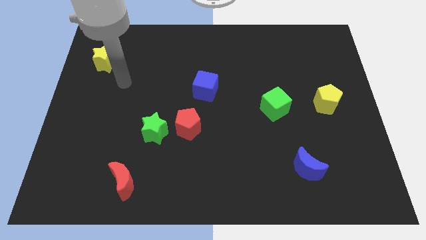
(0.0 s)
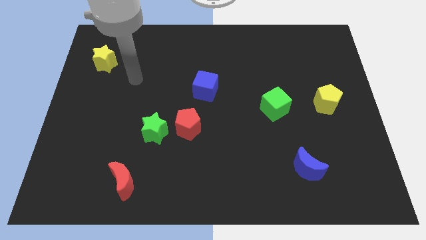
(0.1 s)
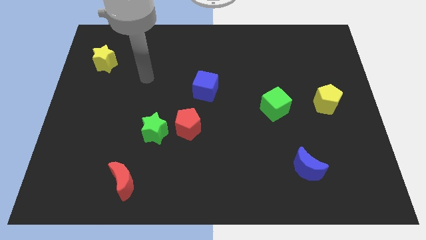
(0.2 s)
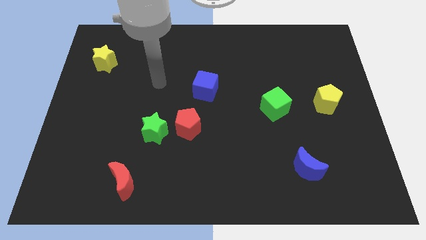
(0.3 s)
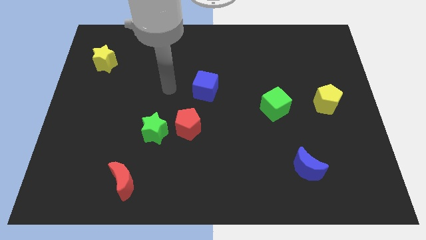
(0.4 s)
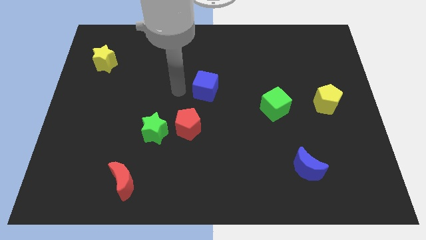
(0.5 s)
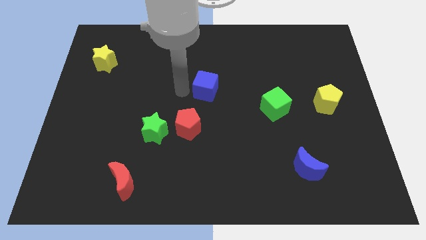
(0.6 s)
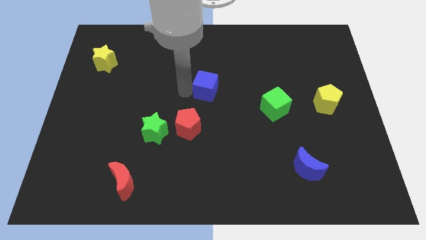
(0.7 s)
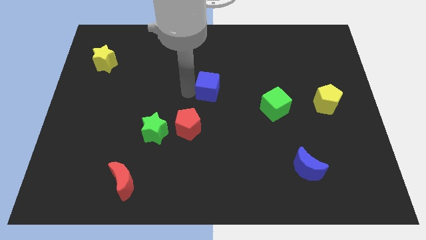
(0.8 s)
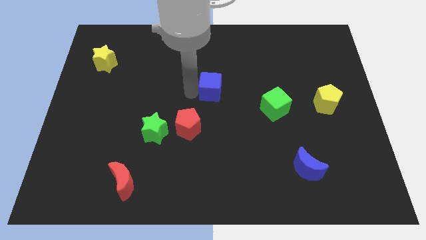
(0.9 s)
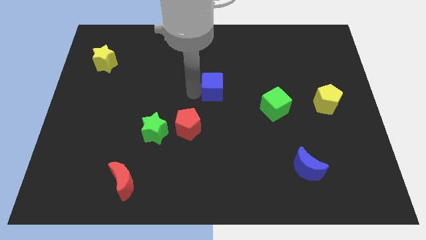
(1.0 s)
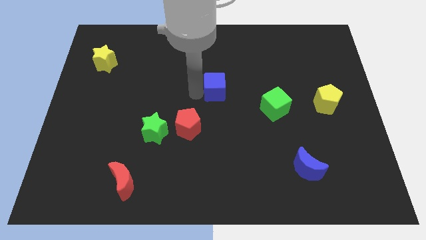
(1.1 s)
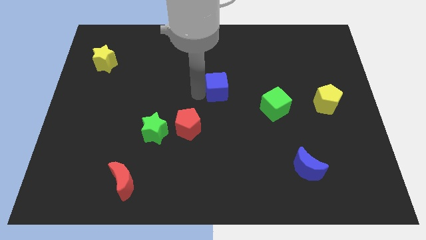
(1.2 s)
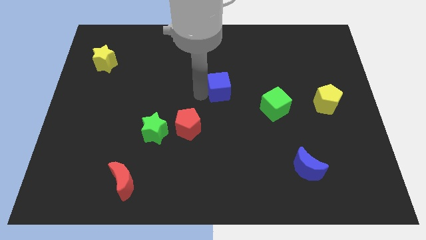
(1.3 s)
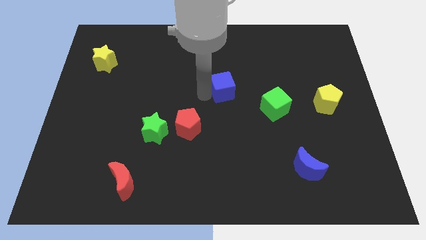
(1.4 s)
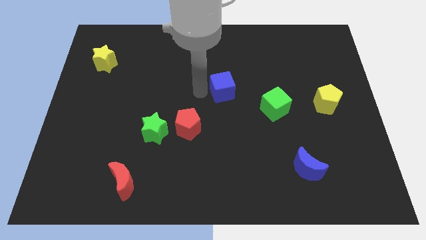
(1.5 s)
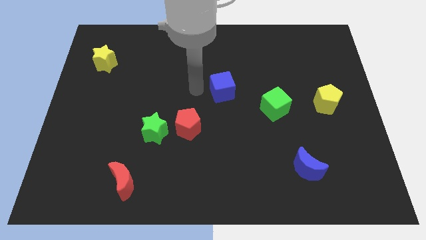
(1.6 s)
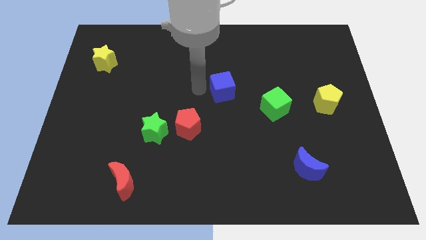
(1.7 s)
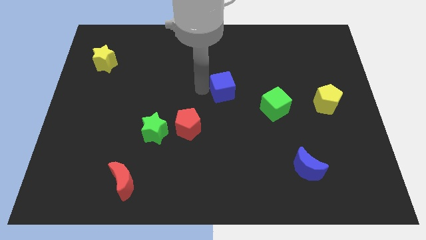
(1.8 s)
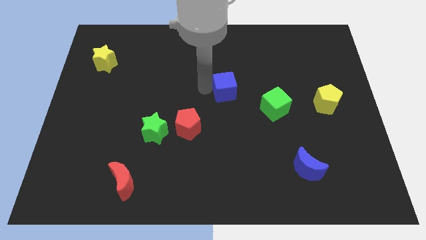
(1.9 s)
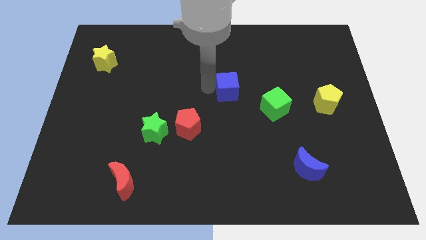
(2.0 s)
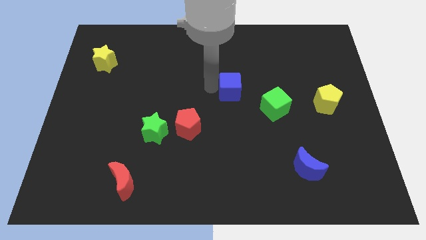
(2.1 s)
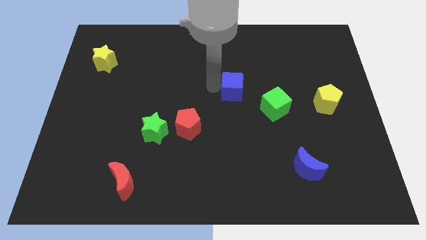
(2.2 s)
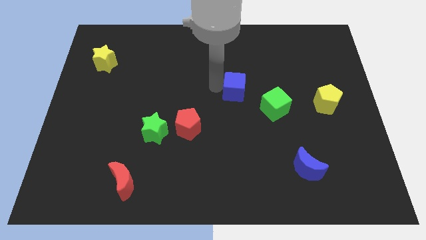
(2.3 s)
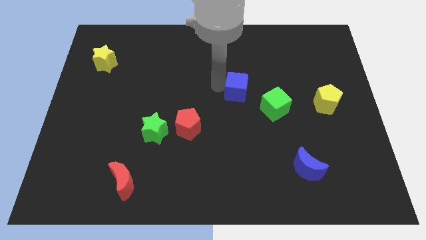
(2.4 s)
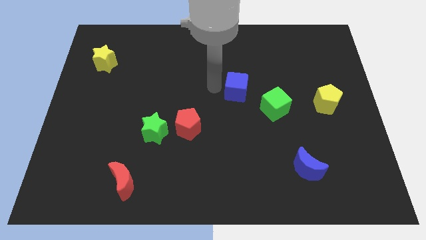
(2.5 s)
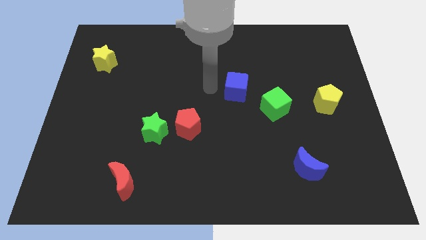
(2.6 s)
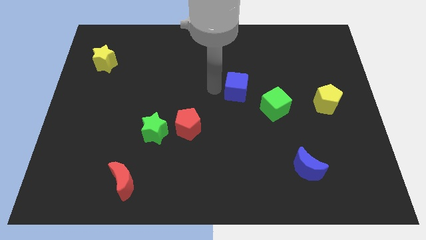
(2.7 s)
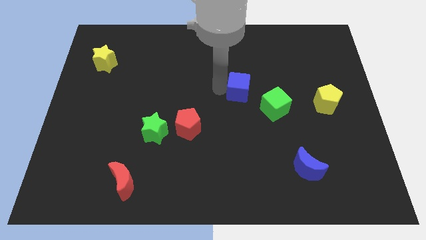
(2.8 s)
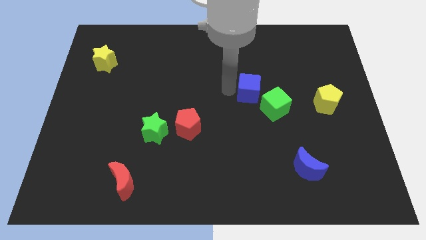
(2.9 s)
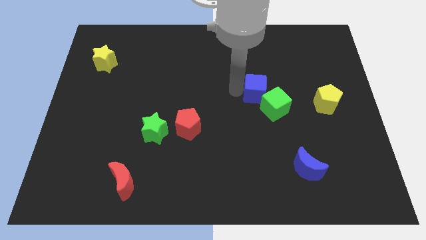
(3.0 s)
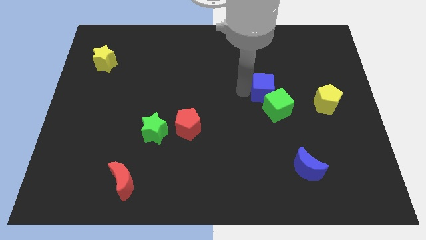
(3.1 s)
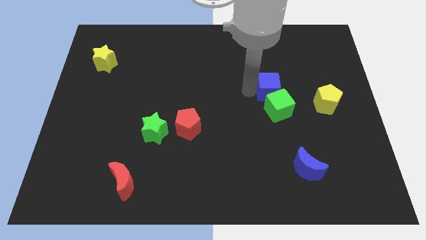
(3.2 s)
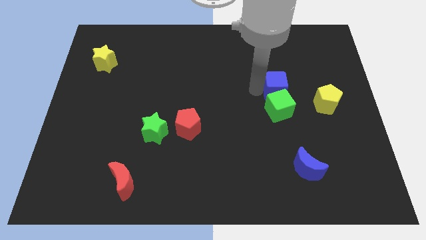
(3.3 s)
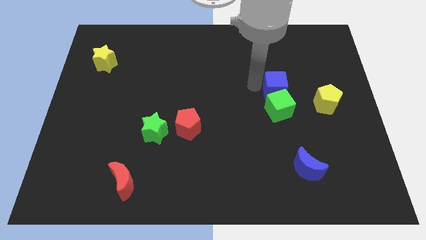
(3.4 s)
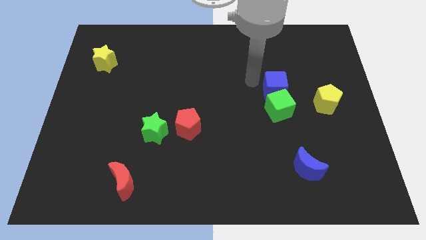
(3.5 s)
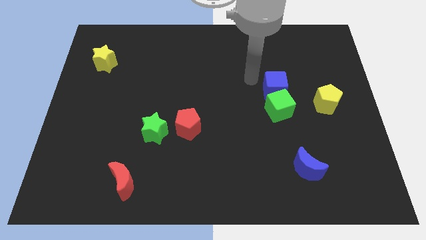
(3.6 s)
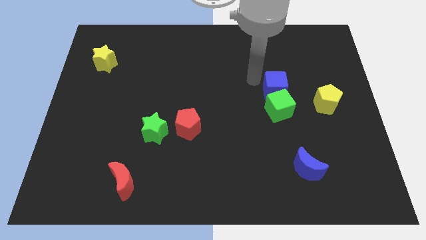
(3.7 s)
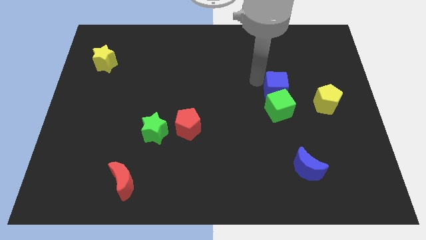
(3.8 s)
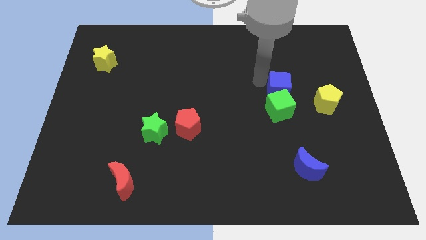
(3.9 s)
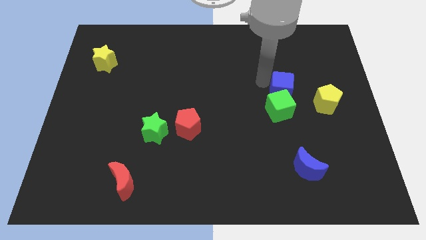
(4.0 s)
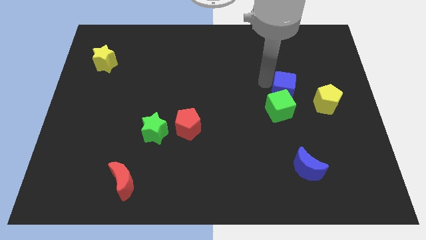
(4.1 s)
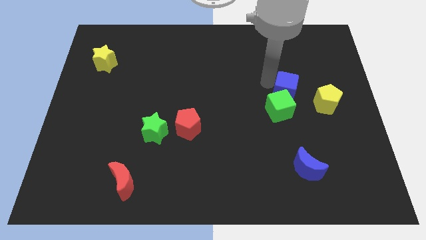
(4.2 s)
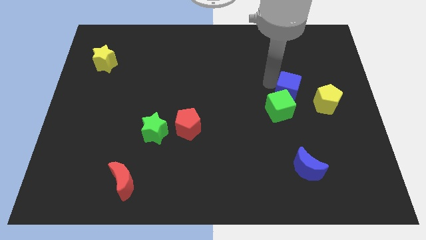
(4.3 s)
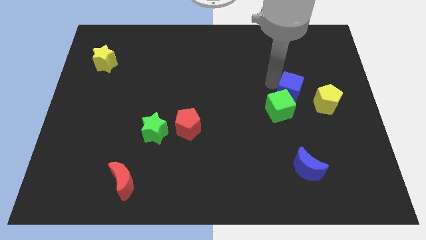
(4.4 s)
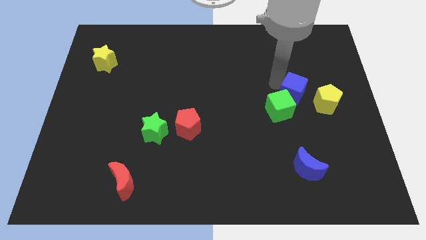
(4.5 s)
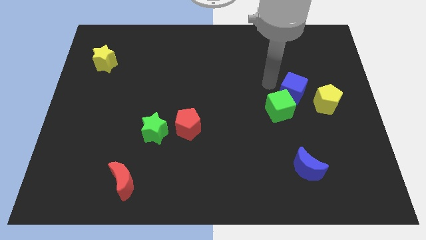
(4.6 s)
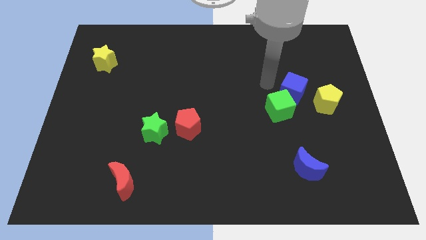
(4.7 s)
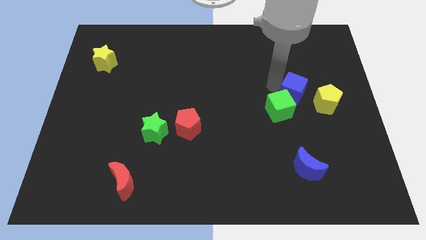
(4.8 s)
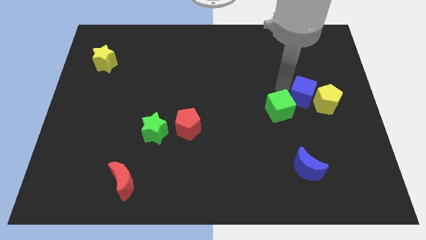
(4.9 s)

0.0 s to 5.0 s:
push the blue cube next to the yellow pentagon

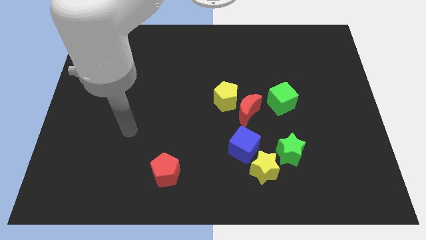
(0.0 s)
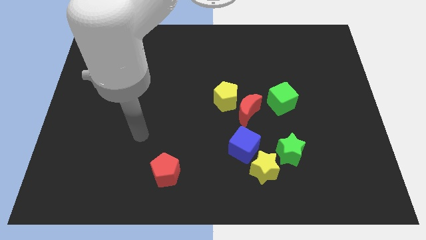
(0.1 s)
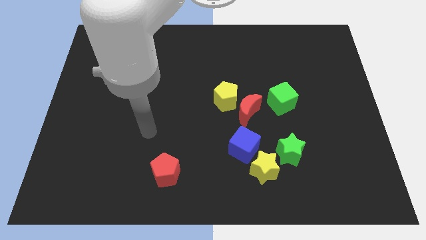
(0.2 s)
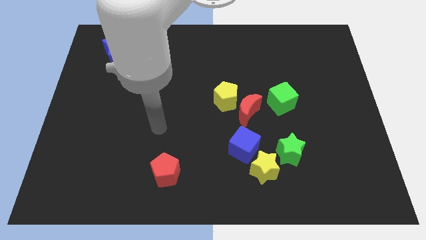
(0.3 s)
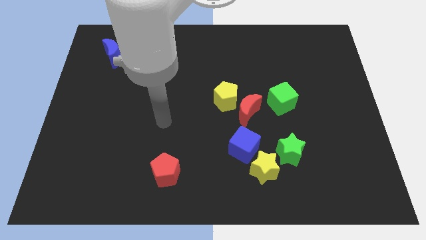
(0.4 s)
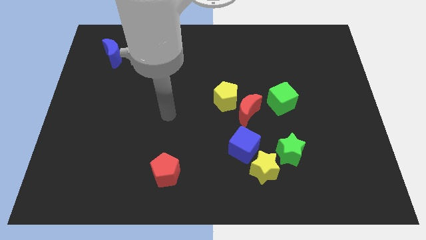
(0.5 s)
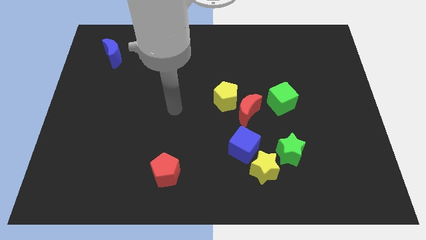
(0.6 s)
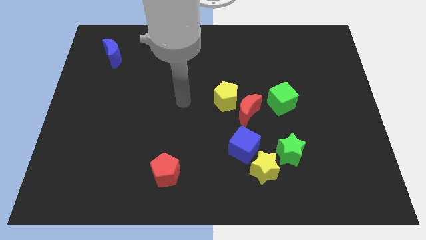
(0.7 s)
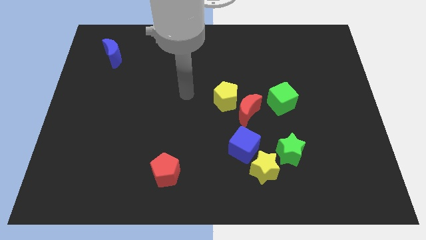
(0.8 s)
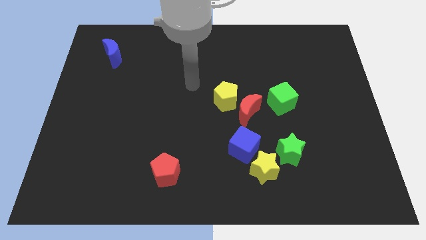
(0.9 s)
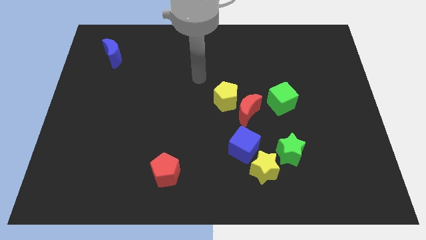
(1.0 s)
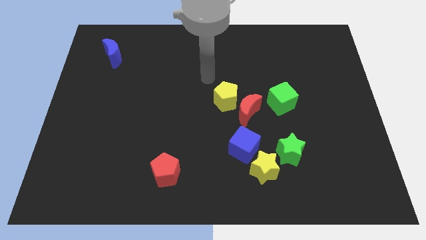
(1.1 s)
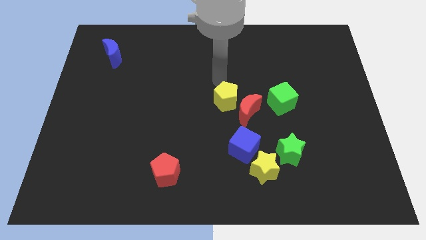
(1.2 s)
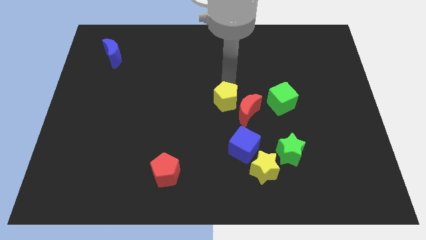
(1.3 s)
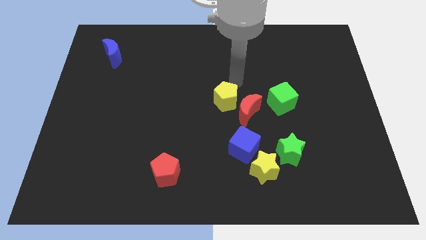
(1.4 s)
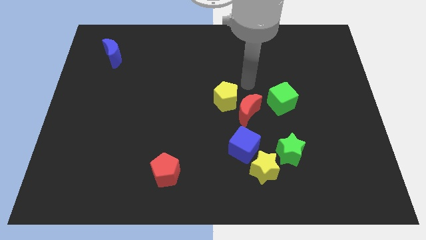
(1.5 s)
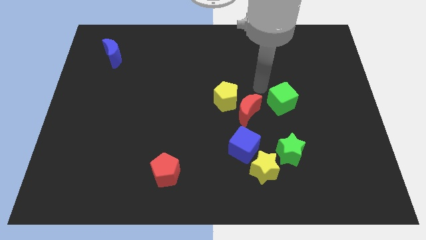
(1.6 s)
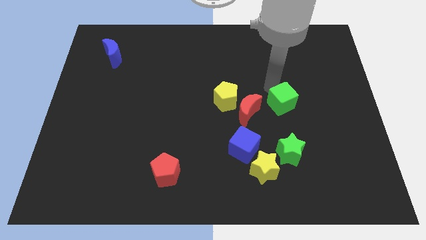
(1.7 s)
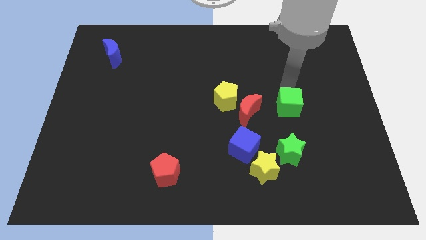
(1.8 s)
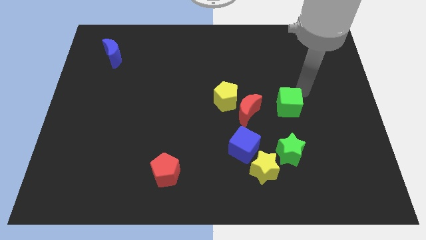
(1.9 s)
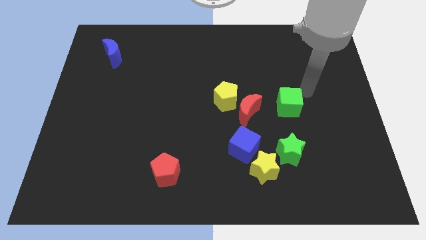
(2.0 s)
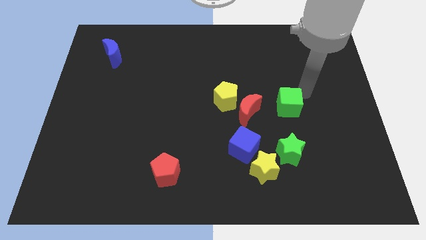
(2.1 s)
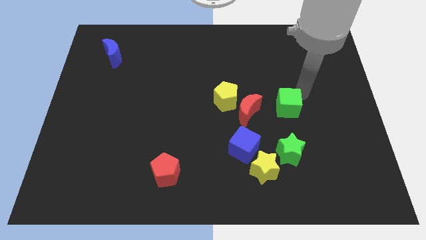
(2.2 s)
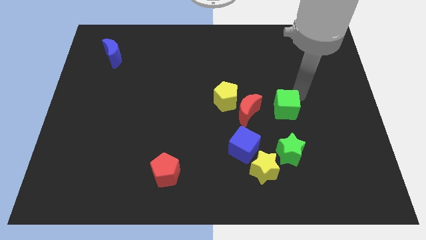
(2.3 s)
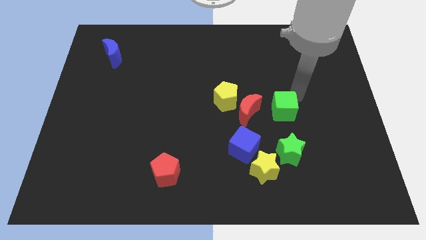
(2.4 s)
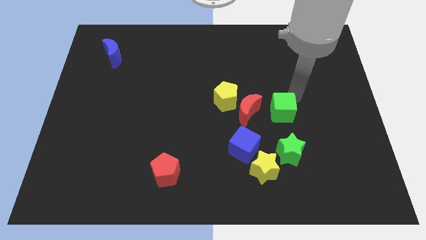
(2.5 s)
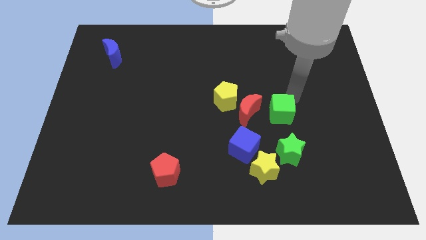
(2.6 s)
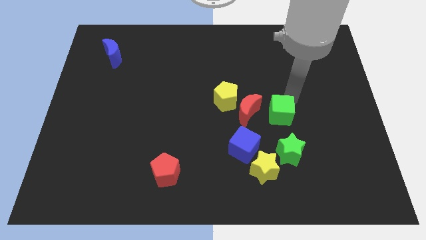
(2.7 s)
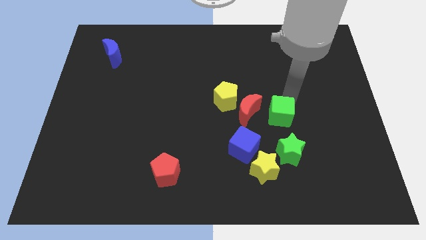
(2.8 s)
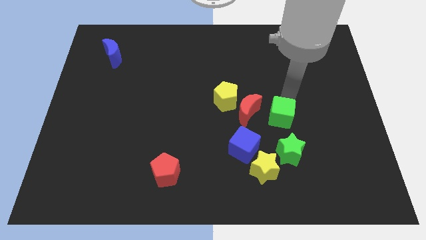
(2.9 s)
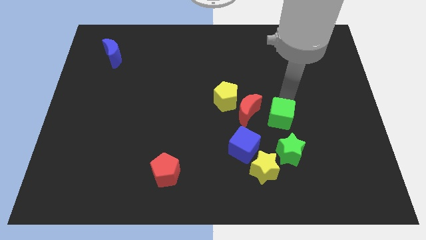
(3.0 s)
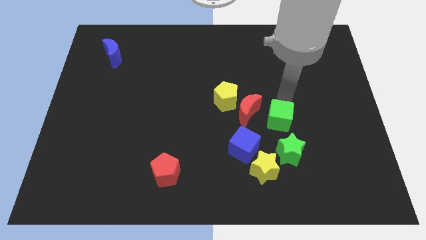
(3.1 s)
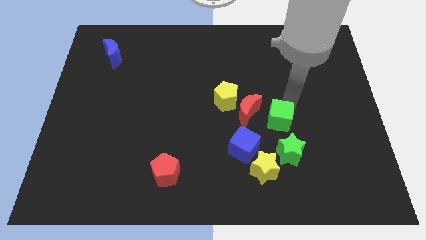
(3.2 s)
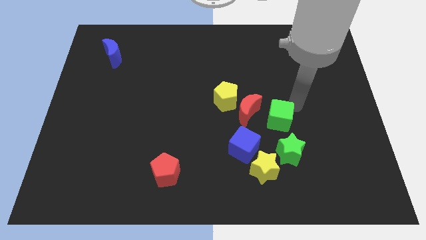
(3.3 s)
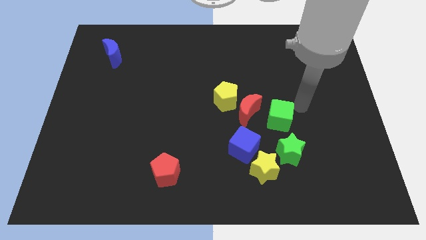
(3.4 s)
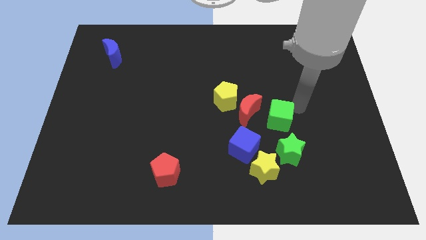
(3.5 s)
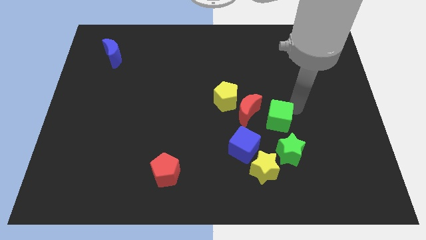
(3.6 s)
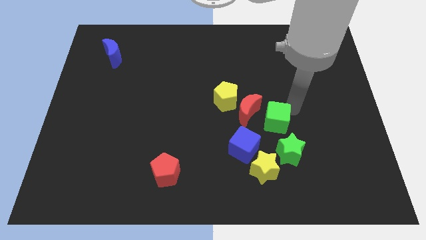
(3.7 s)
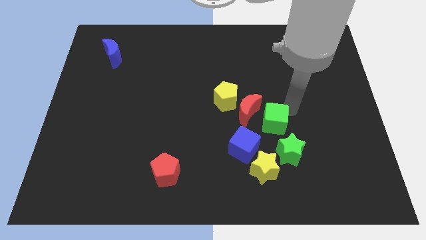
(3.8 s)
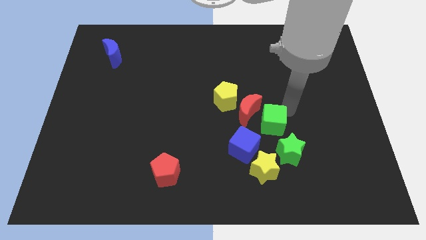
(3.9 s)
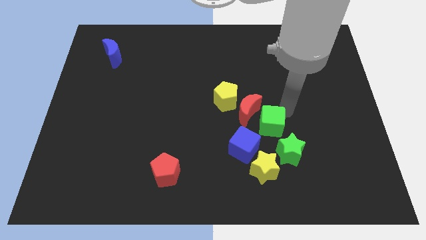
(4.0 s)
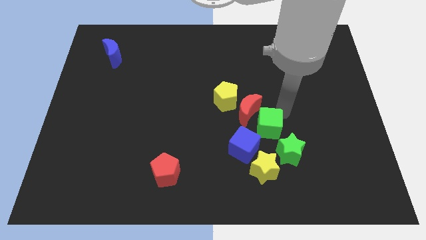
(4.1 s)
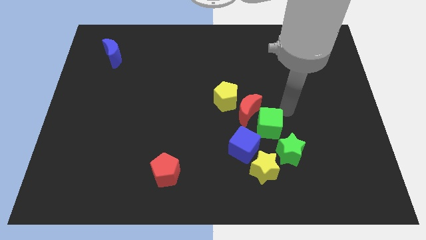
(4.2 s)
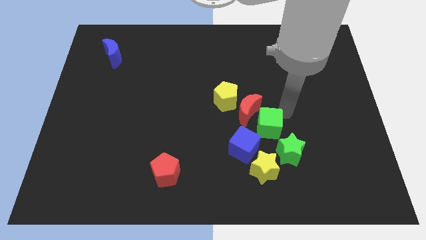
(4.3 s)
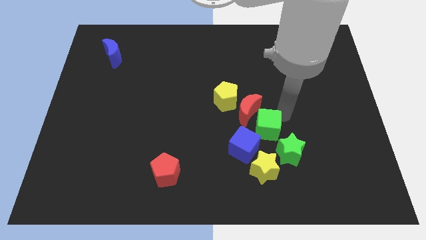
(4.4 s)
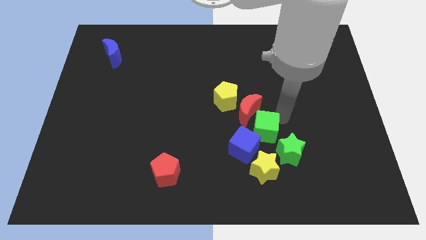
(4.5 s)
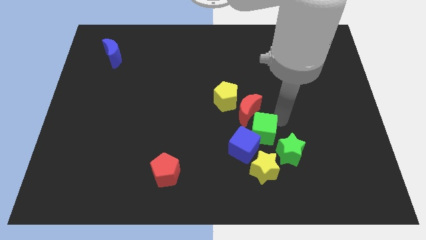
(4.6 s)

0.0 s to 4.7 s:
push the green cube close to the blue cube
